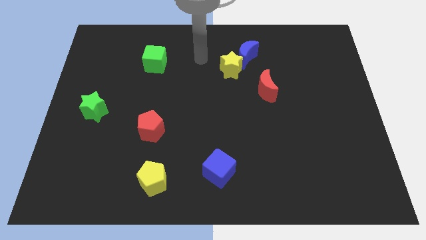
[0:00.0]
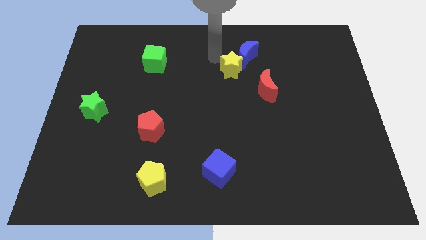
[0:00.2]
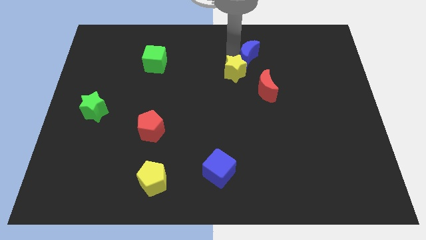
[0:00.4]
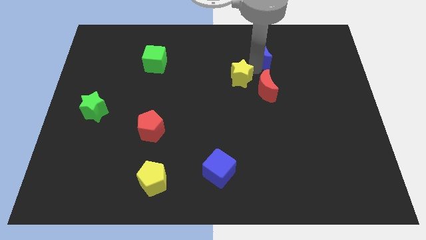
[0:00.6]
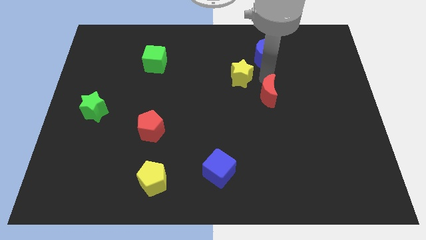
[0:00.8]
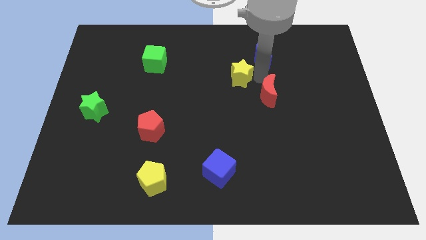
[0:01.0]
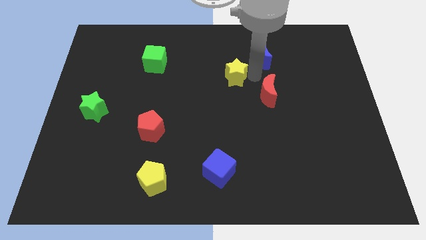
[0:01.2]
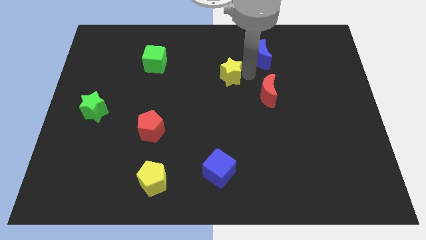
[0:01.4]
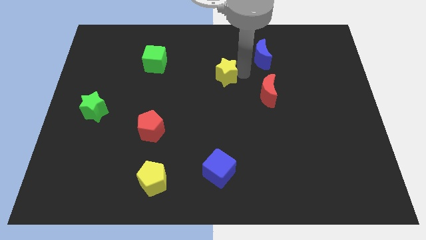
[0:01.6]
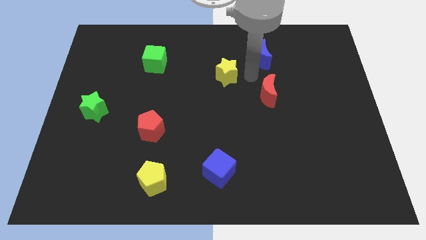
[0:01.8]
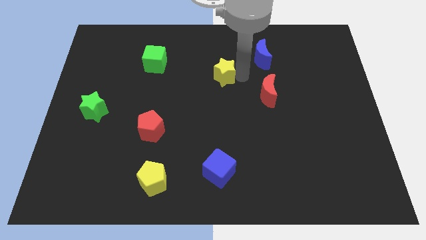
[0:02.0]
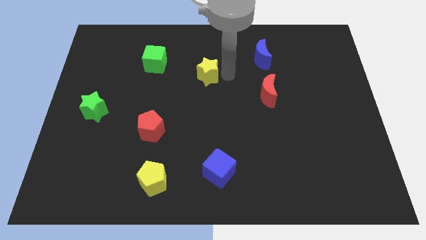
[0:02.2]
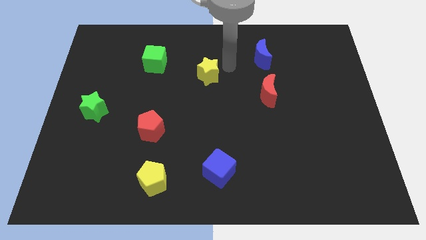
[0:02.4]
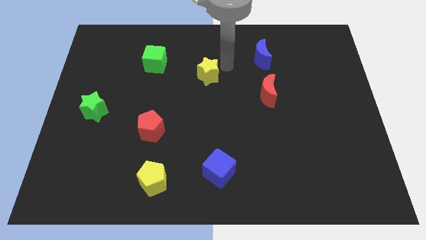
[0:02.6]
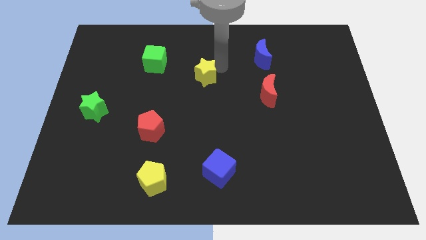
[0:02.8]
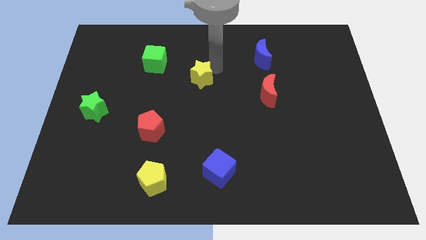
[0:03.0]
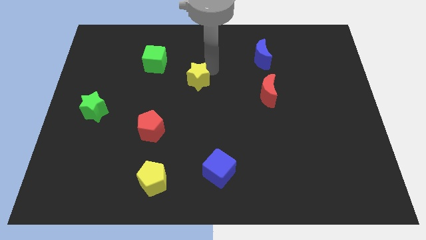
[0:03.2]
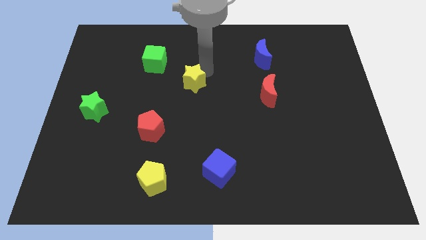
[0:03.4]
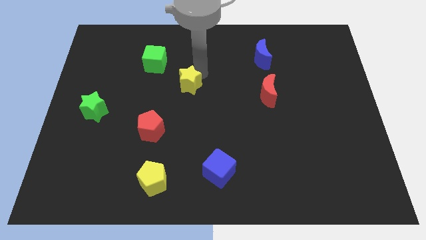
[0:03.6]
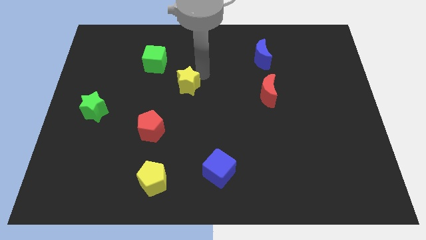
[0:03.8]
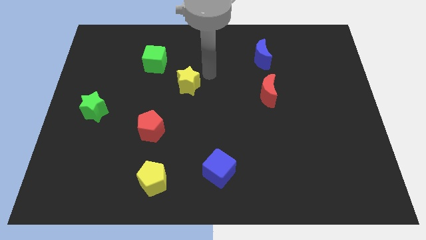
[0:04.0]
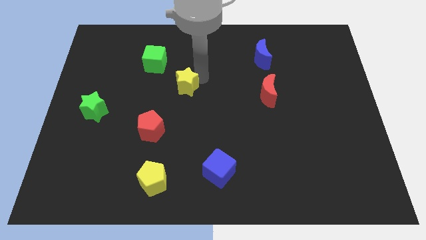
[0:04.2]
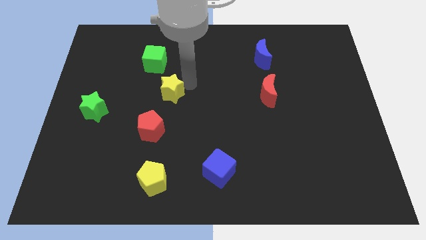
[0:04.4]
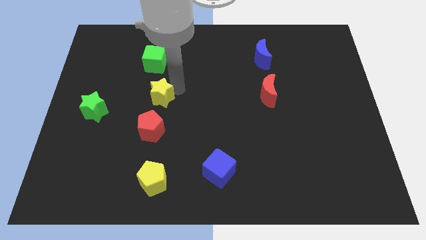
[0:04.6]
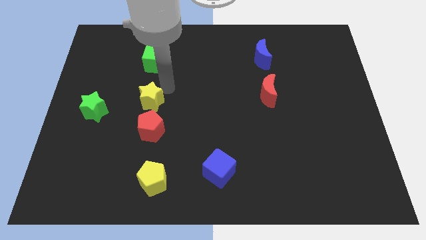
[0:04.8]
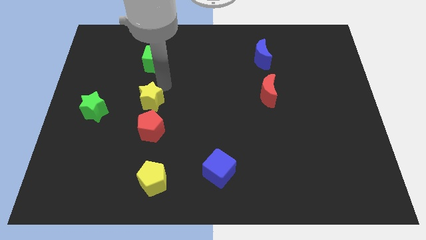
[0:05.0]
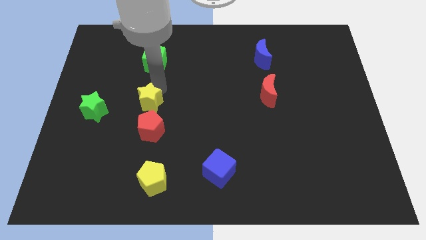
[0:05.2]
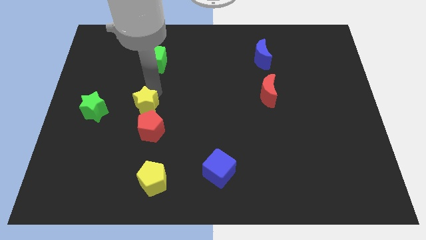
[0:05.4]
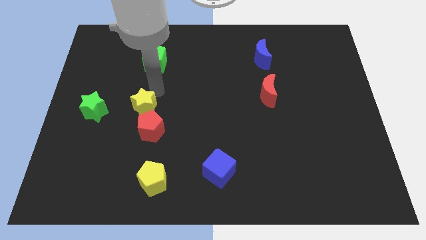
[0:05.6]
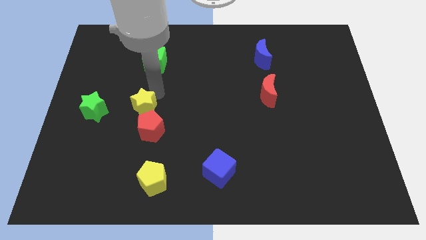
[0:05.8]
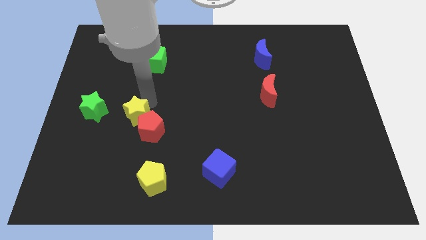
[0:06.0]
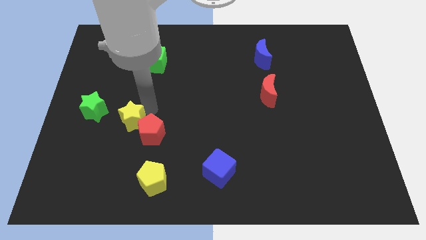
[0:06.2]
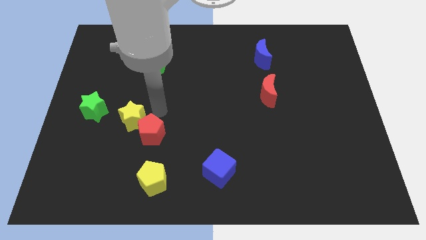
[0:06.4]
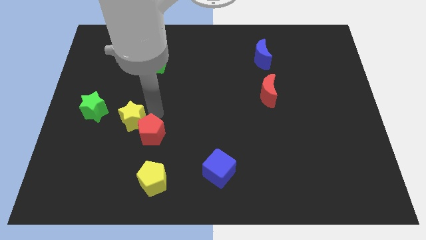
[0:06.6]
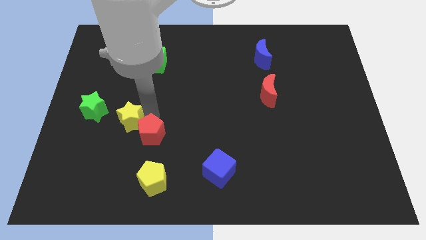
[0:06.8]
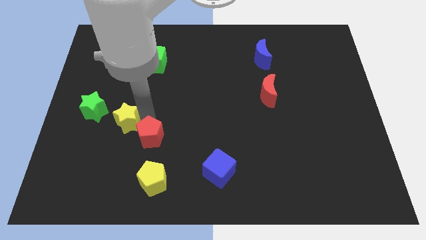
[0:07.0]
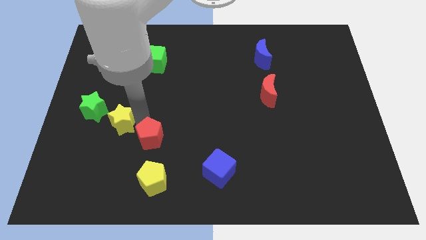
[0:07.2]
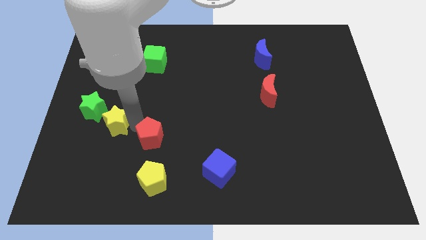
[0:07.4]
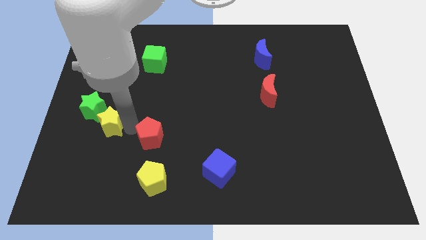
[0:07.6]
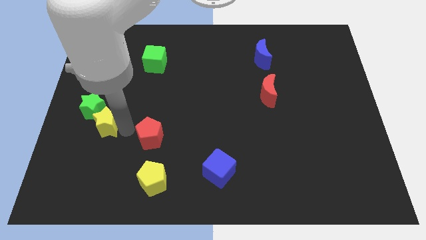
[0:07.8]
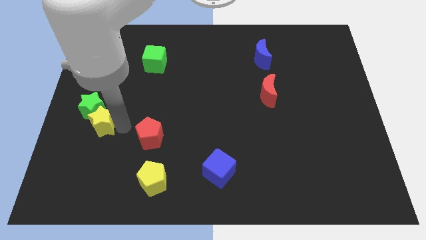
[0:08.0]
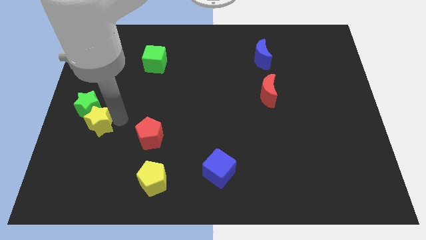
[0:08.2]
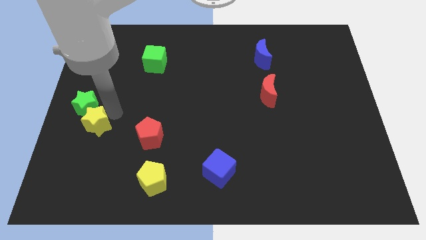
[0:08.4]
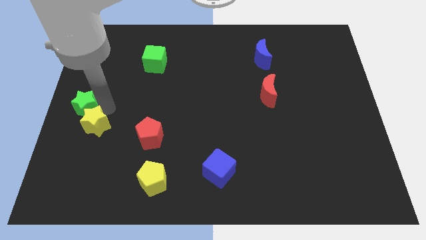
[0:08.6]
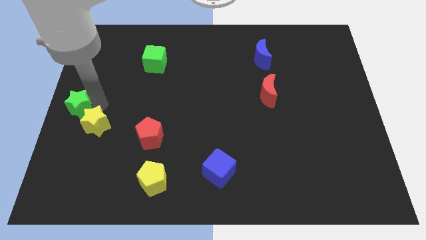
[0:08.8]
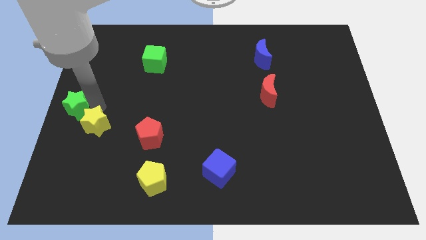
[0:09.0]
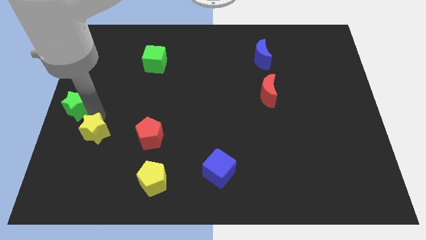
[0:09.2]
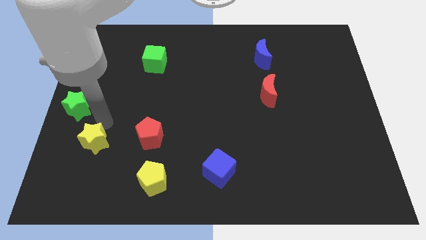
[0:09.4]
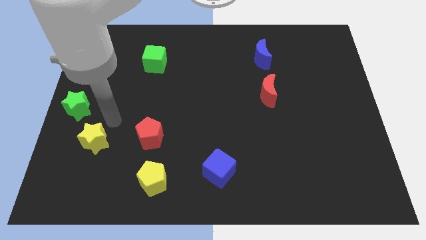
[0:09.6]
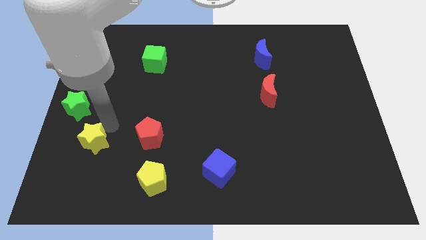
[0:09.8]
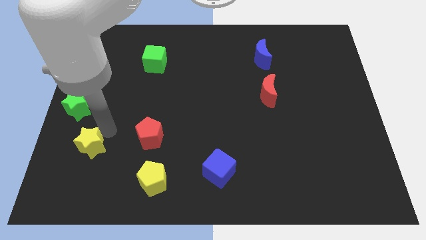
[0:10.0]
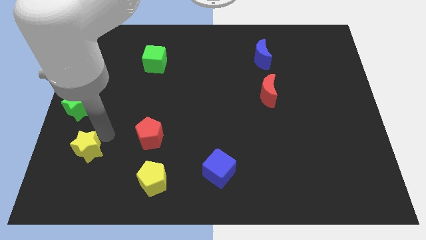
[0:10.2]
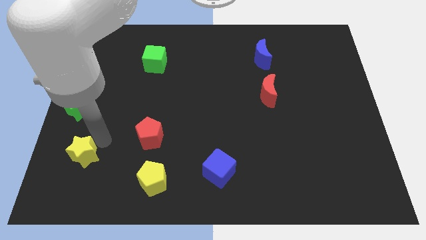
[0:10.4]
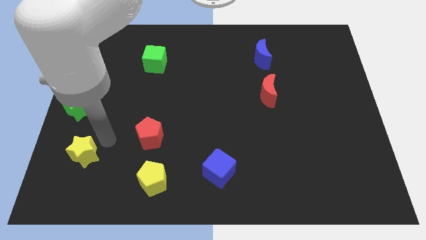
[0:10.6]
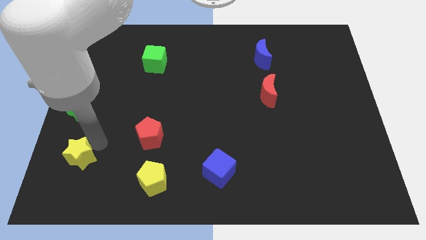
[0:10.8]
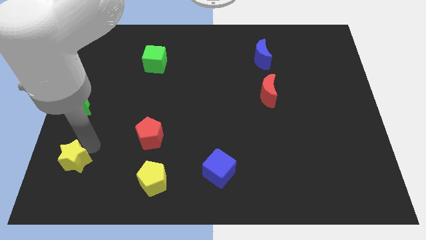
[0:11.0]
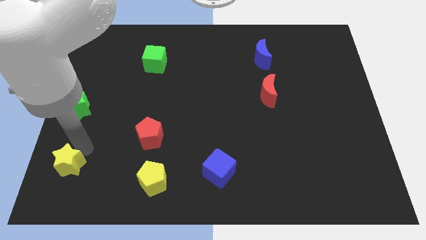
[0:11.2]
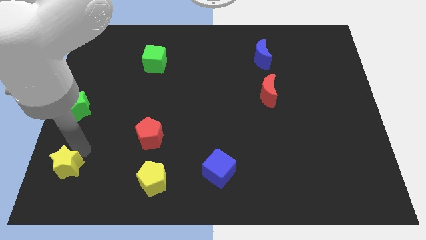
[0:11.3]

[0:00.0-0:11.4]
slide the yellow star to the bottom left of the board

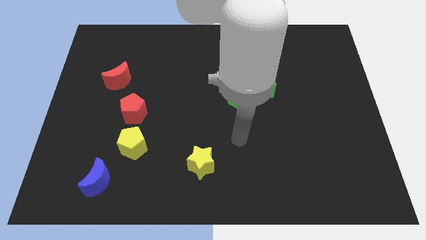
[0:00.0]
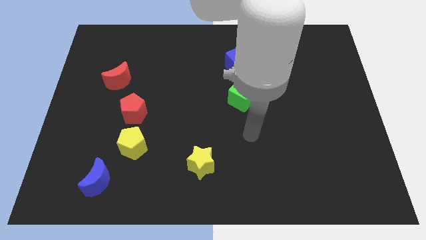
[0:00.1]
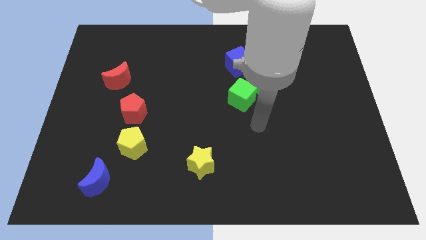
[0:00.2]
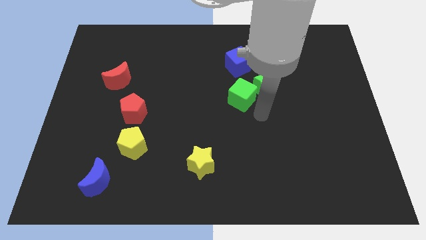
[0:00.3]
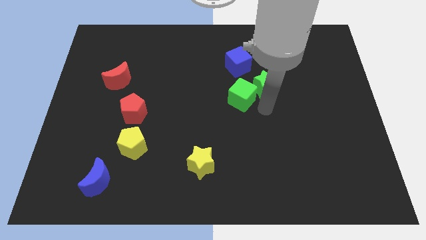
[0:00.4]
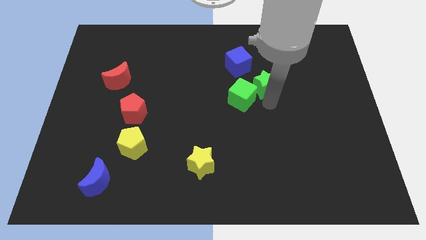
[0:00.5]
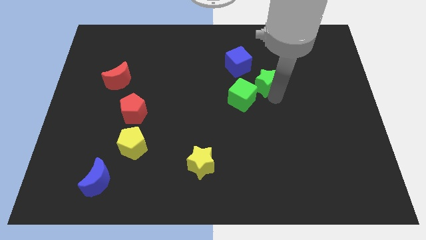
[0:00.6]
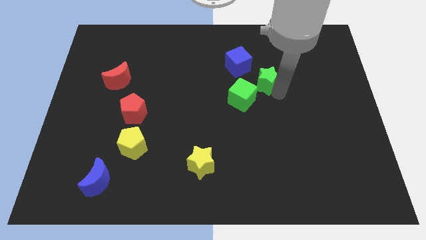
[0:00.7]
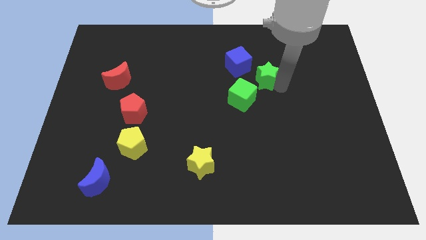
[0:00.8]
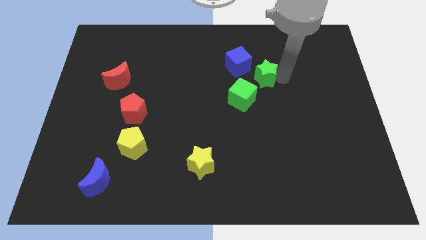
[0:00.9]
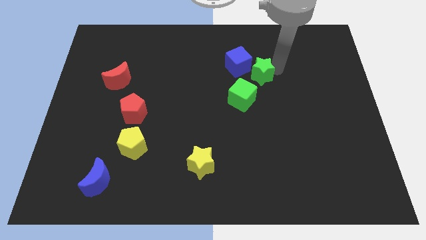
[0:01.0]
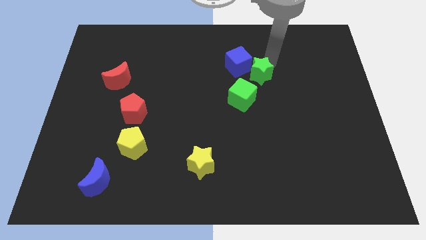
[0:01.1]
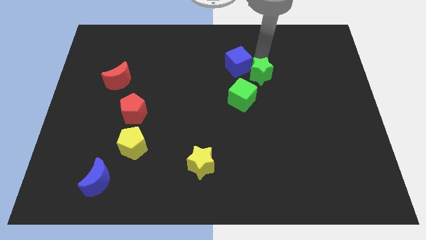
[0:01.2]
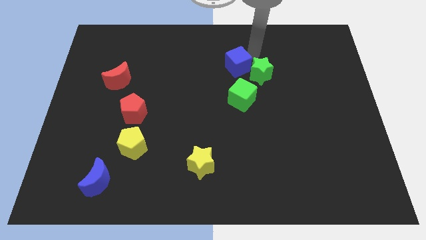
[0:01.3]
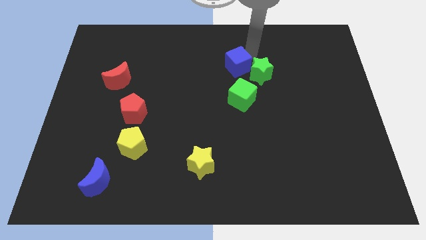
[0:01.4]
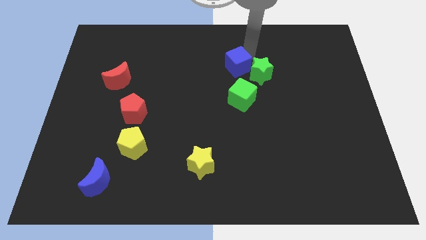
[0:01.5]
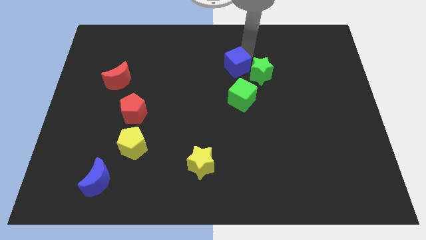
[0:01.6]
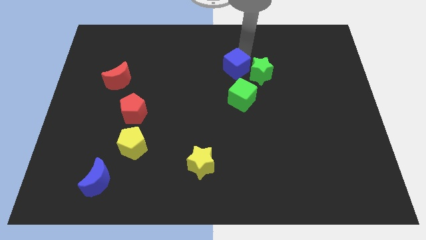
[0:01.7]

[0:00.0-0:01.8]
push the blue cube to the center
